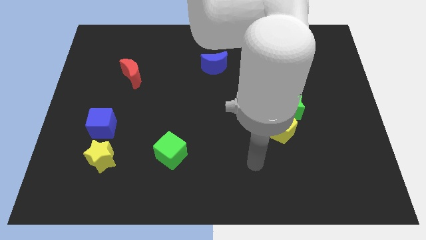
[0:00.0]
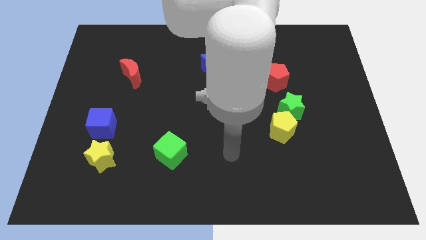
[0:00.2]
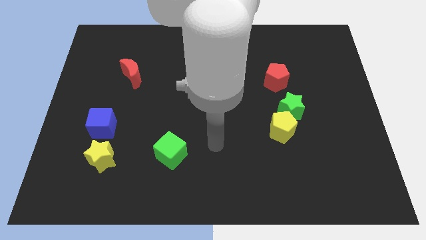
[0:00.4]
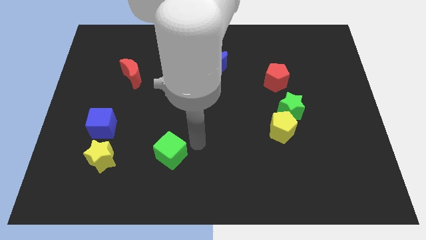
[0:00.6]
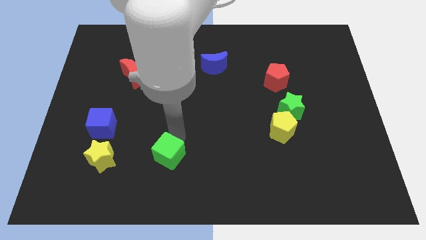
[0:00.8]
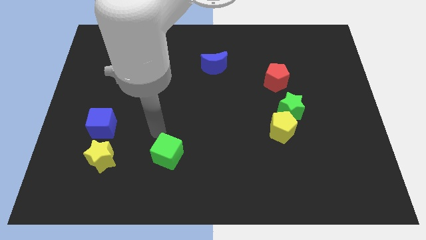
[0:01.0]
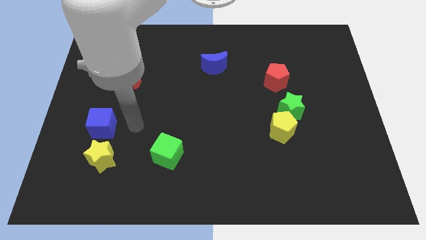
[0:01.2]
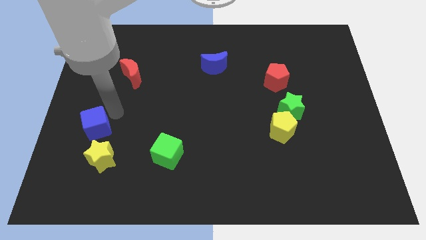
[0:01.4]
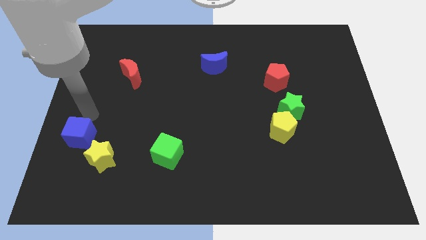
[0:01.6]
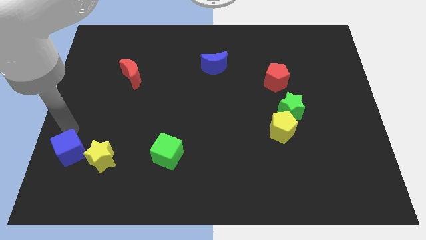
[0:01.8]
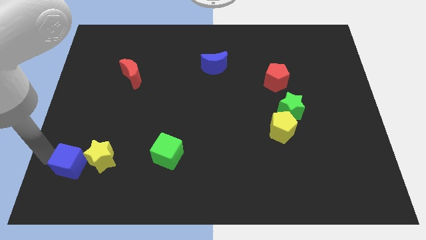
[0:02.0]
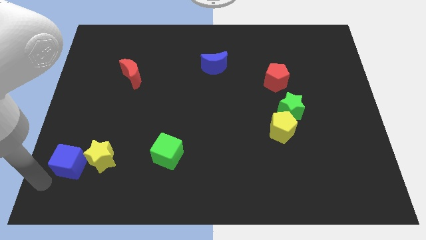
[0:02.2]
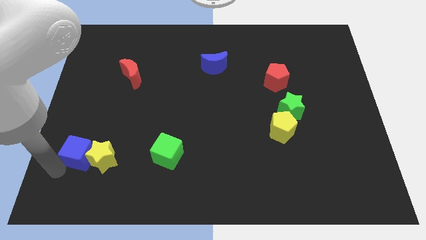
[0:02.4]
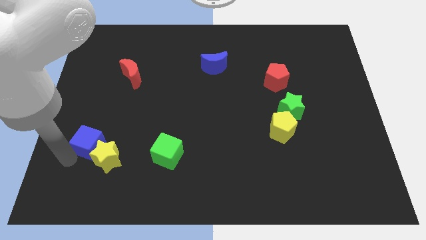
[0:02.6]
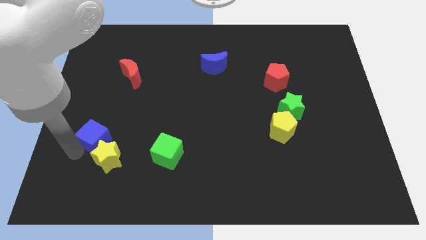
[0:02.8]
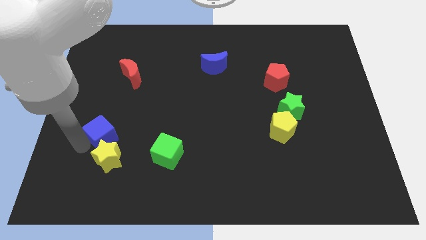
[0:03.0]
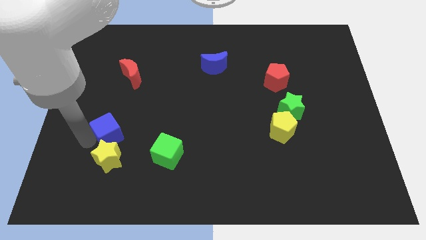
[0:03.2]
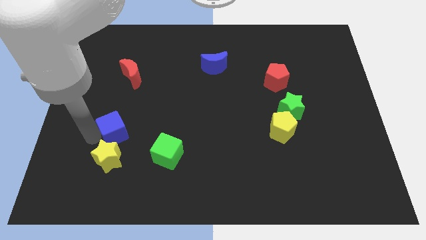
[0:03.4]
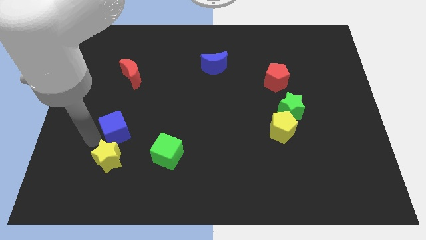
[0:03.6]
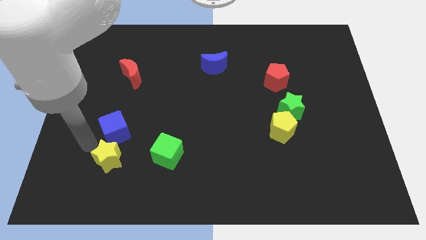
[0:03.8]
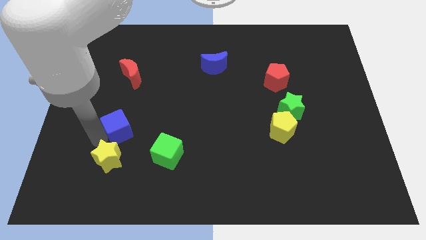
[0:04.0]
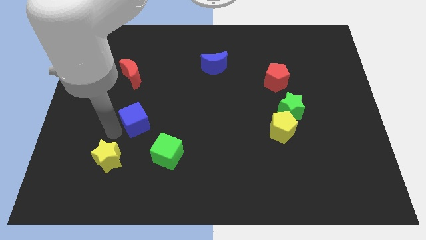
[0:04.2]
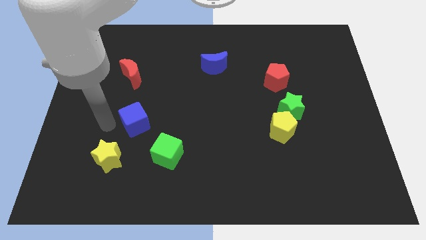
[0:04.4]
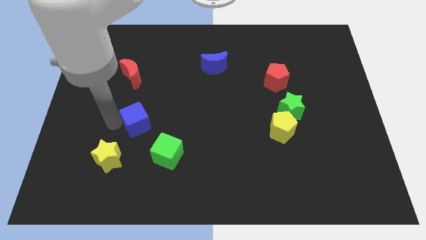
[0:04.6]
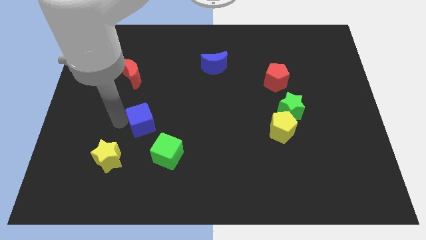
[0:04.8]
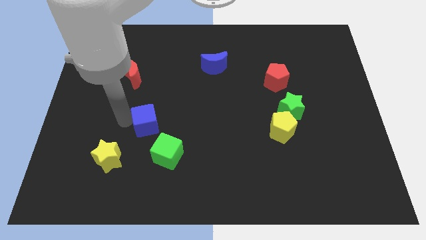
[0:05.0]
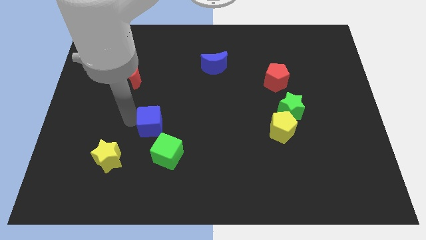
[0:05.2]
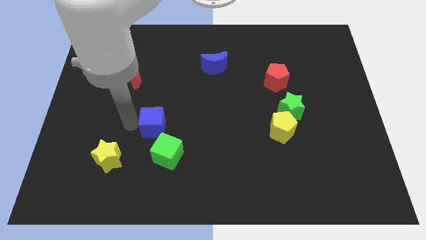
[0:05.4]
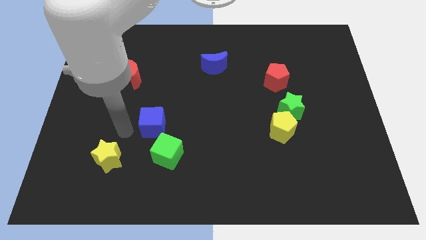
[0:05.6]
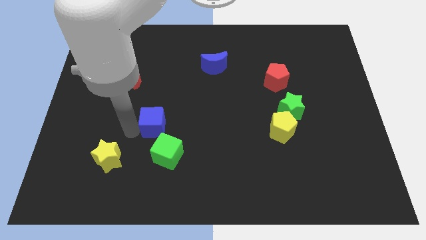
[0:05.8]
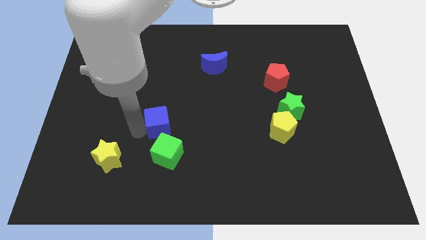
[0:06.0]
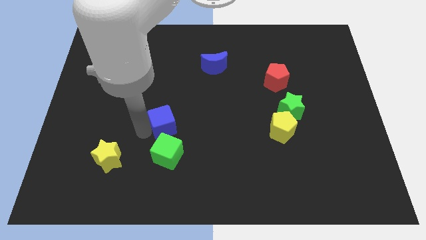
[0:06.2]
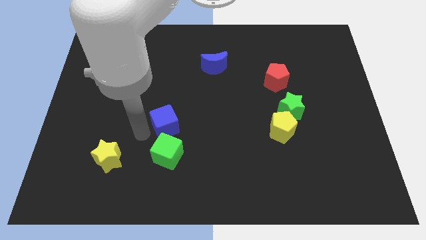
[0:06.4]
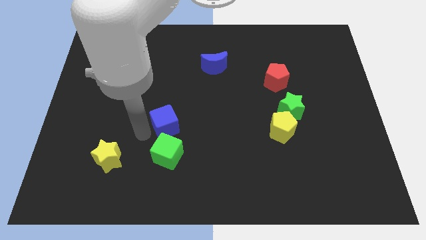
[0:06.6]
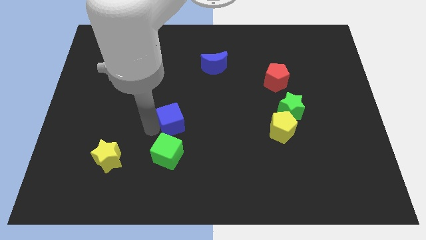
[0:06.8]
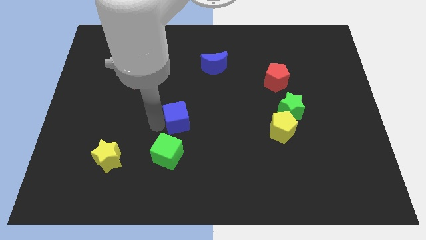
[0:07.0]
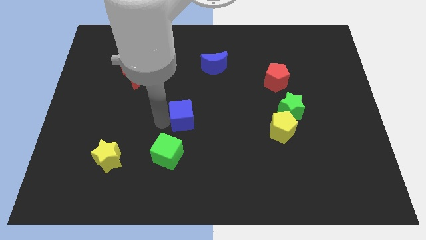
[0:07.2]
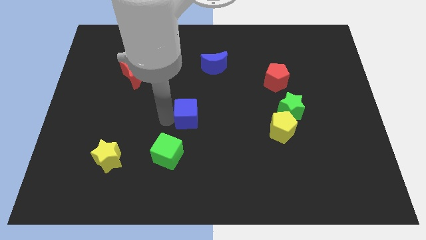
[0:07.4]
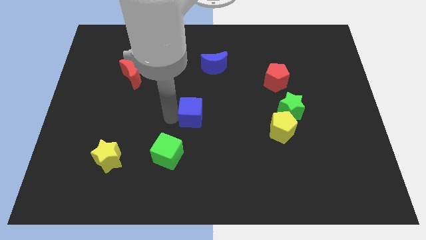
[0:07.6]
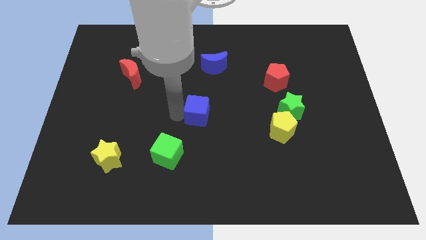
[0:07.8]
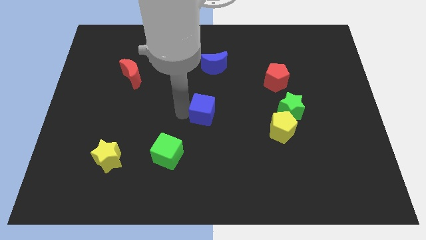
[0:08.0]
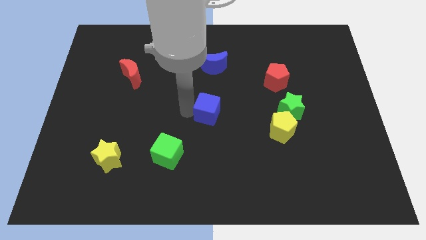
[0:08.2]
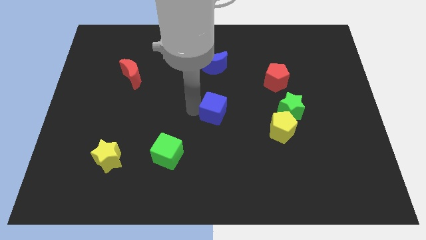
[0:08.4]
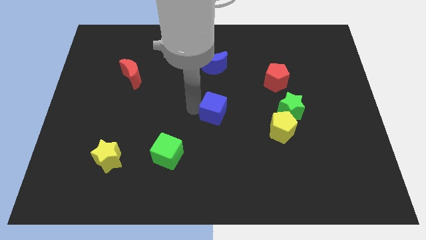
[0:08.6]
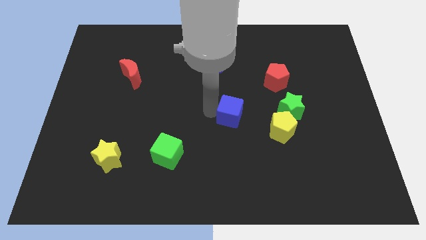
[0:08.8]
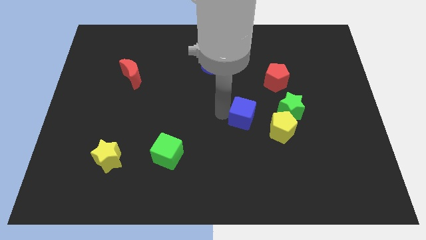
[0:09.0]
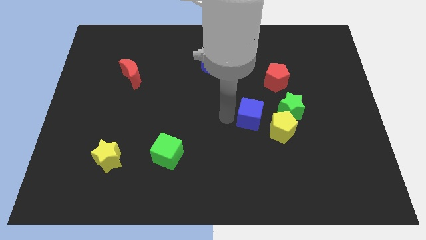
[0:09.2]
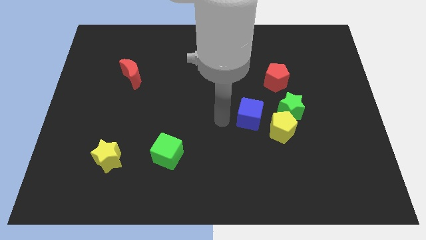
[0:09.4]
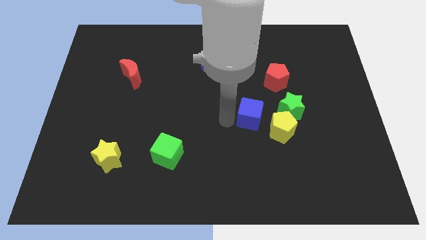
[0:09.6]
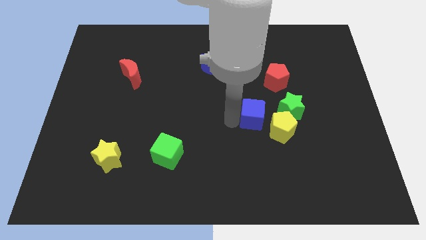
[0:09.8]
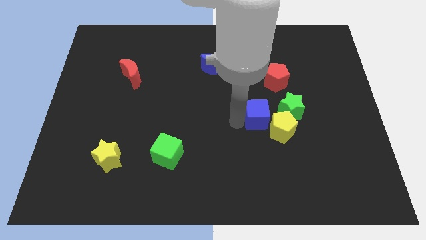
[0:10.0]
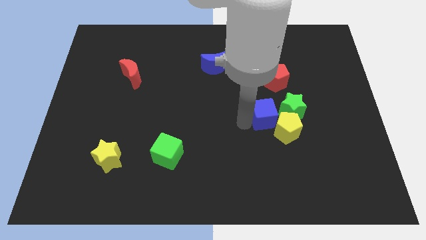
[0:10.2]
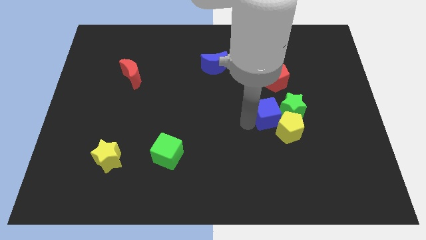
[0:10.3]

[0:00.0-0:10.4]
slide the blue cube close to the green star

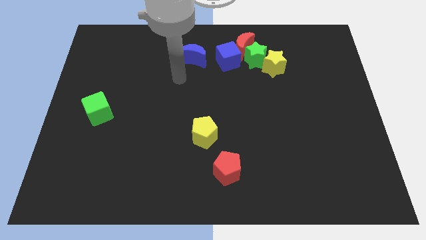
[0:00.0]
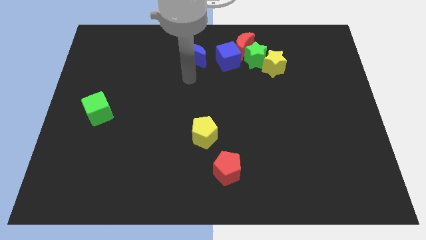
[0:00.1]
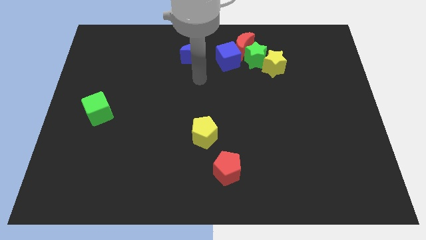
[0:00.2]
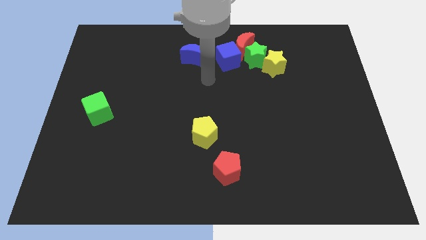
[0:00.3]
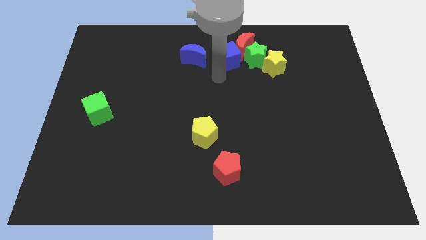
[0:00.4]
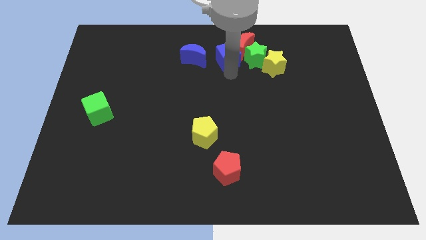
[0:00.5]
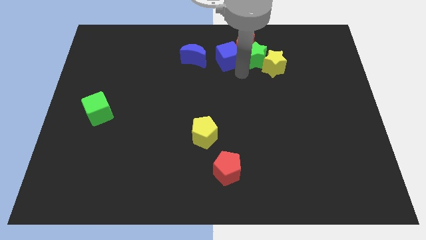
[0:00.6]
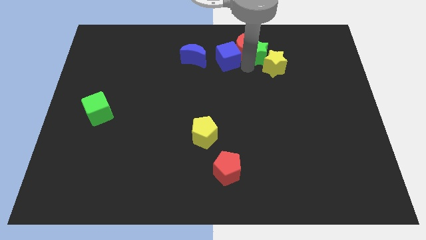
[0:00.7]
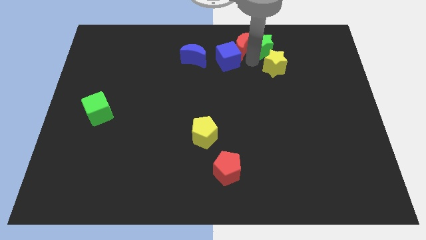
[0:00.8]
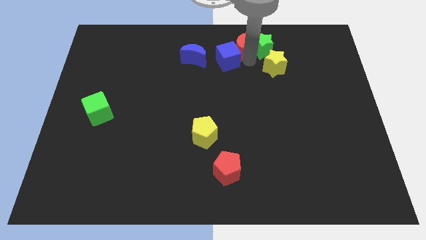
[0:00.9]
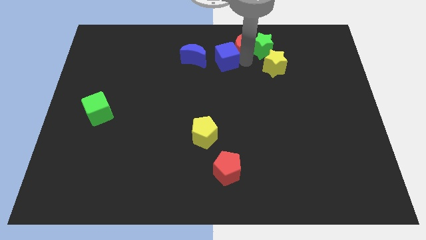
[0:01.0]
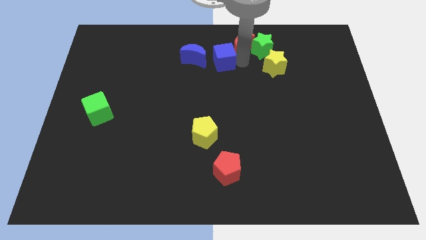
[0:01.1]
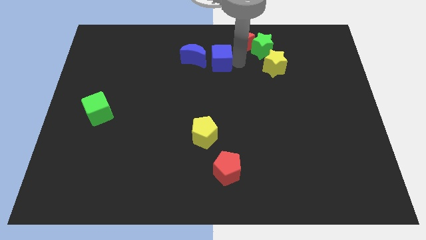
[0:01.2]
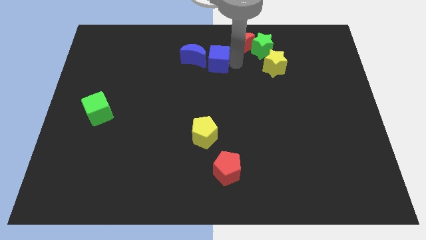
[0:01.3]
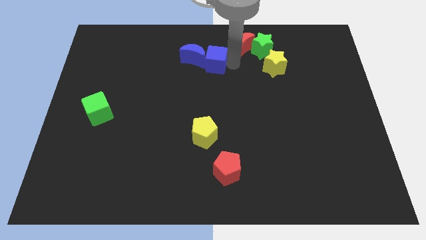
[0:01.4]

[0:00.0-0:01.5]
slide the blue cube towards the blue moon
